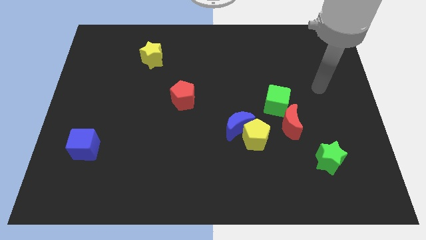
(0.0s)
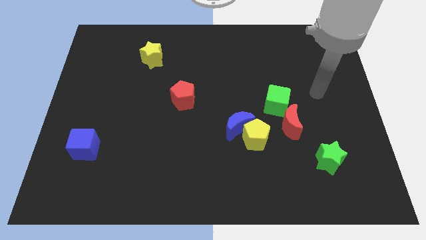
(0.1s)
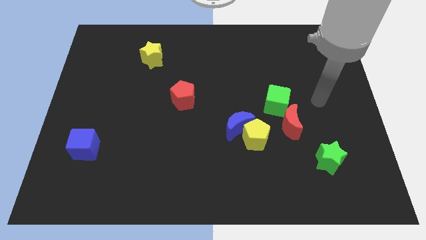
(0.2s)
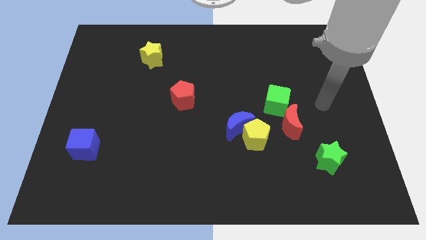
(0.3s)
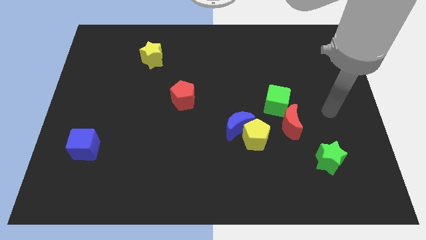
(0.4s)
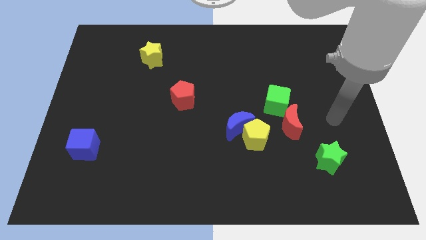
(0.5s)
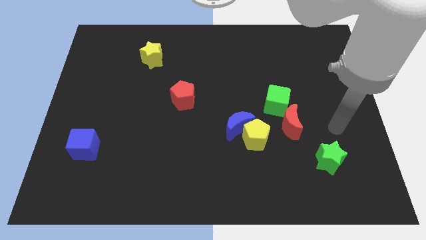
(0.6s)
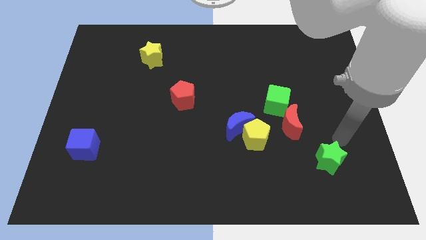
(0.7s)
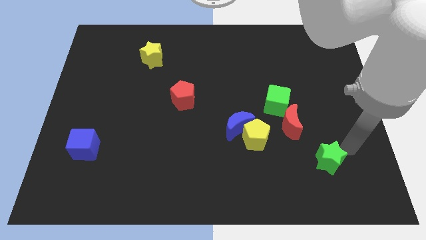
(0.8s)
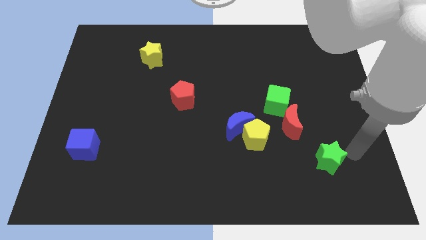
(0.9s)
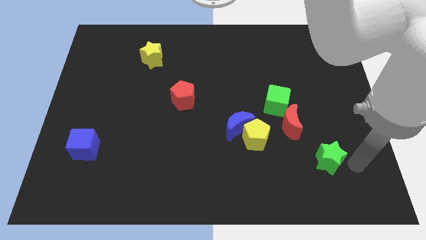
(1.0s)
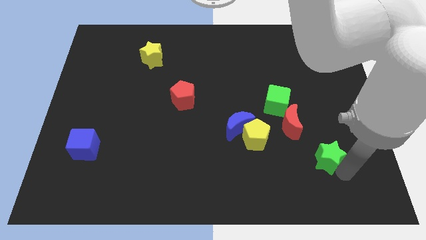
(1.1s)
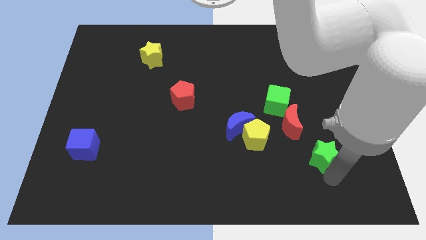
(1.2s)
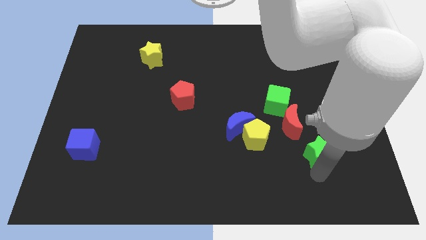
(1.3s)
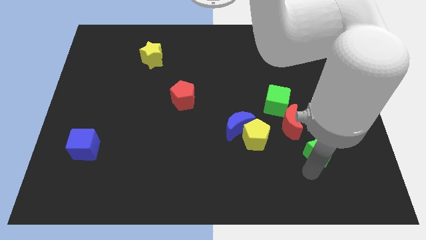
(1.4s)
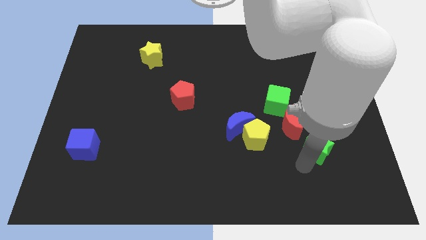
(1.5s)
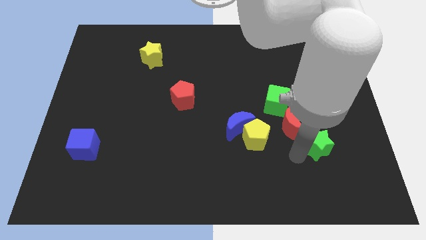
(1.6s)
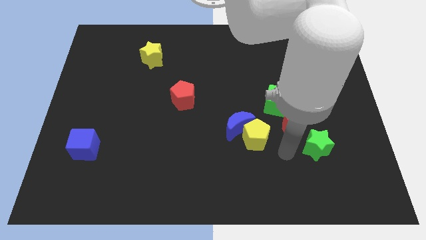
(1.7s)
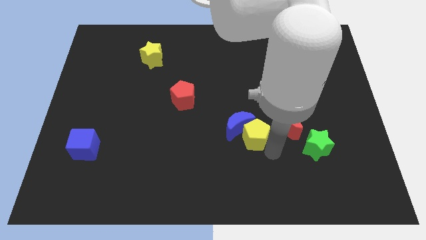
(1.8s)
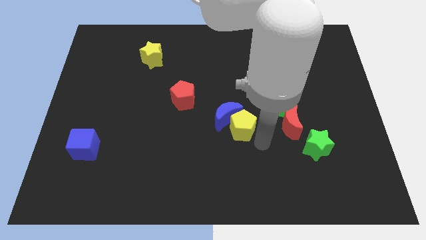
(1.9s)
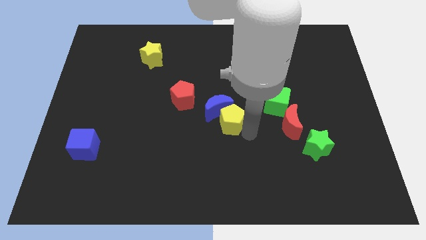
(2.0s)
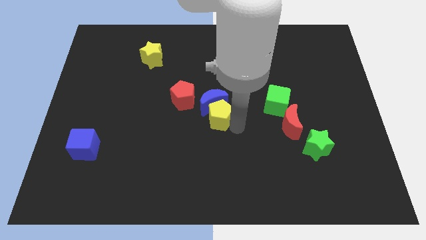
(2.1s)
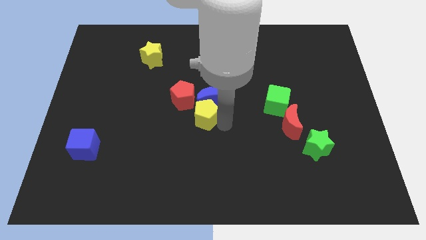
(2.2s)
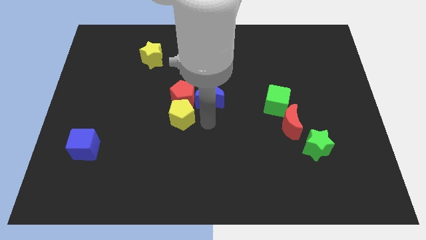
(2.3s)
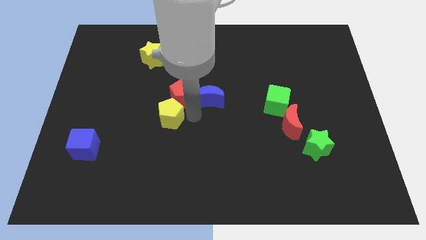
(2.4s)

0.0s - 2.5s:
pull the blue moon apart from the yellow pentagon

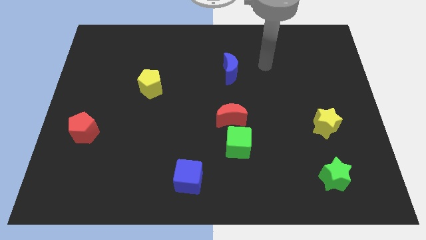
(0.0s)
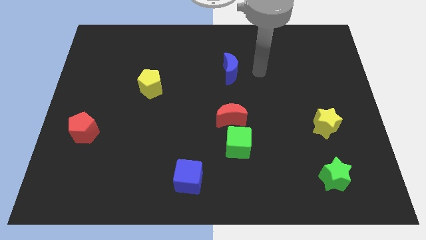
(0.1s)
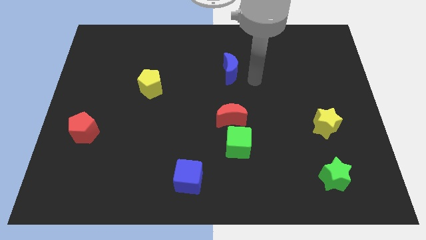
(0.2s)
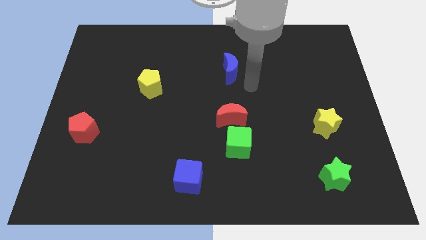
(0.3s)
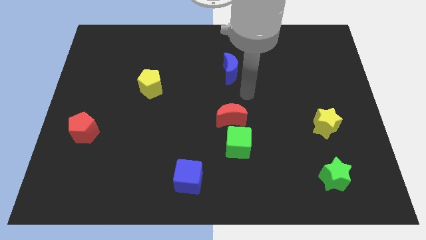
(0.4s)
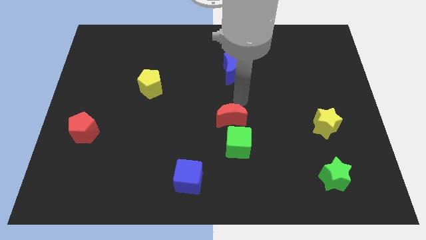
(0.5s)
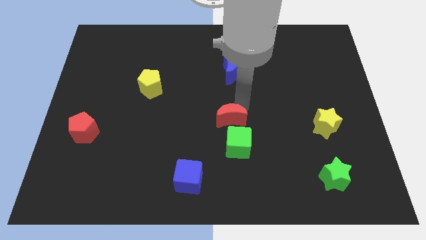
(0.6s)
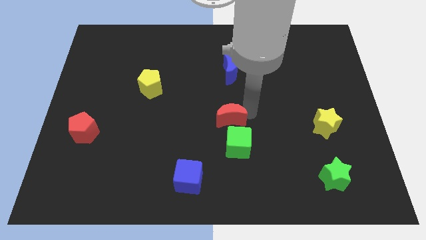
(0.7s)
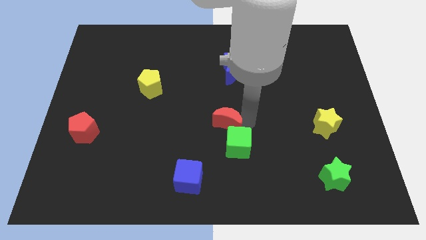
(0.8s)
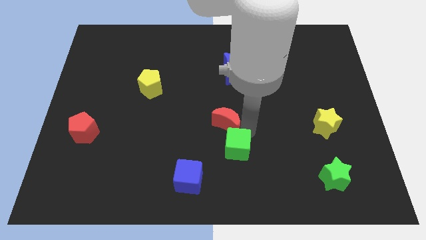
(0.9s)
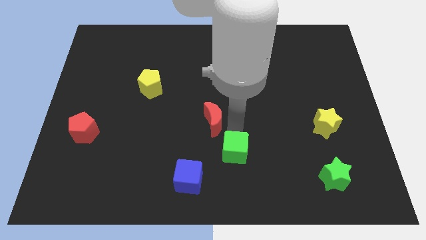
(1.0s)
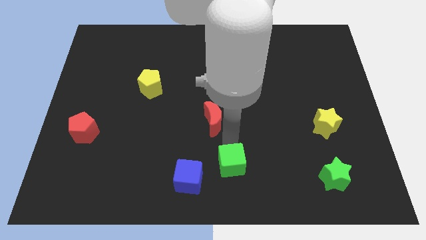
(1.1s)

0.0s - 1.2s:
pull the red moon apart from the green cube

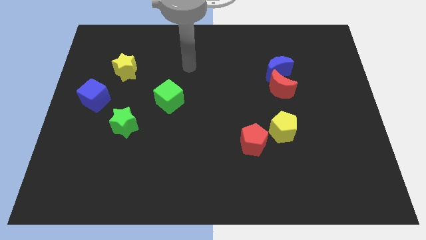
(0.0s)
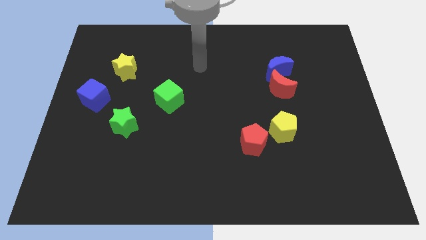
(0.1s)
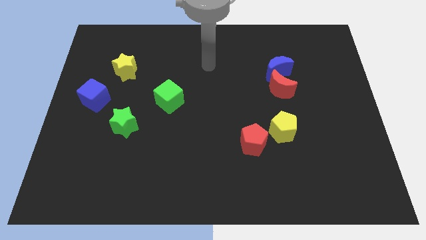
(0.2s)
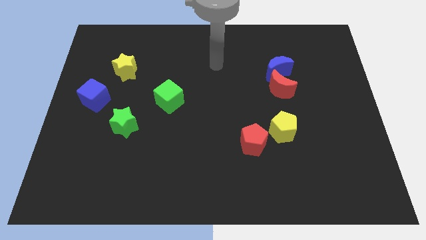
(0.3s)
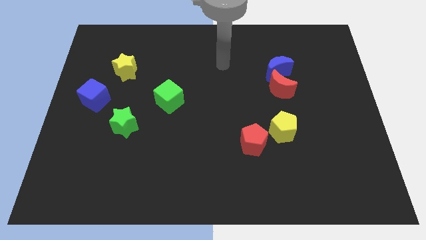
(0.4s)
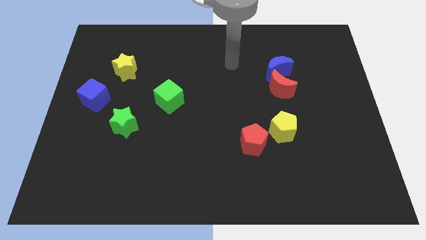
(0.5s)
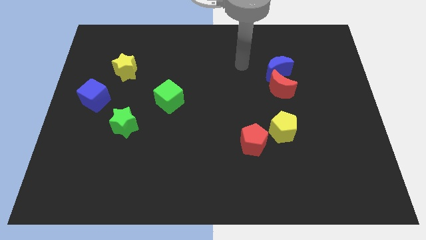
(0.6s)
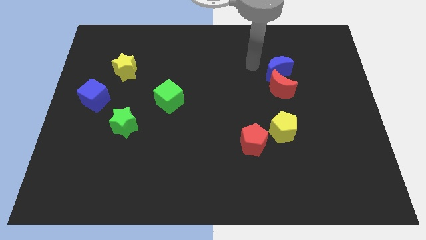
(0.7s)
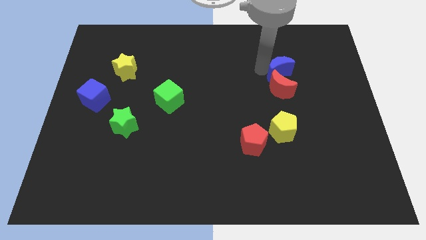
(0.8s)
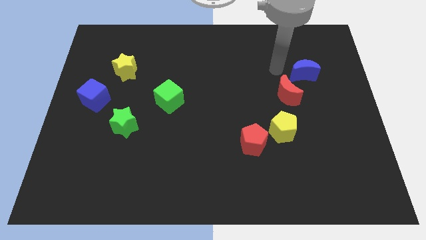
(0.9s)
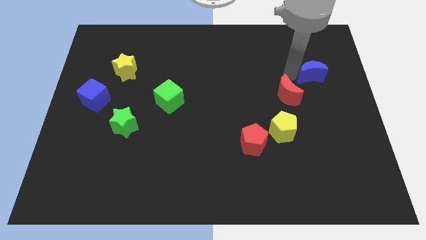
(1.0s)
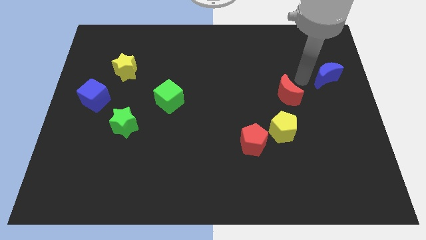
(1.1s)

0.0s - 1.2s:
separate the red moon from the blue moon

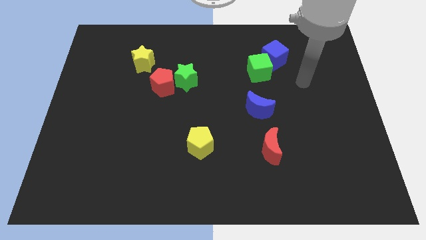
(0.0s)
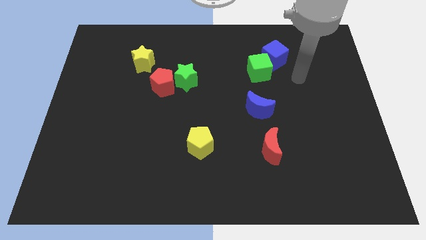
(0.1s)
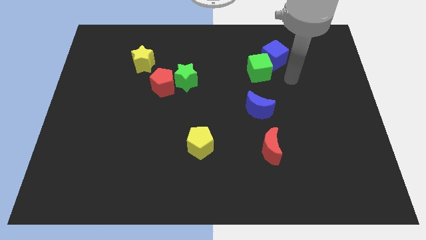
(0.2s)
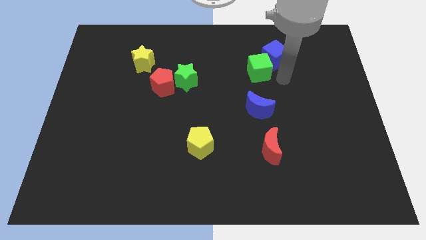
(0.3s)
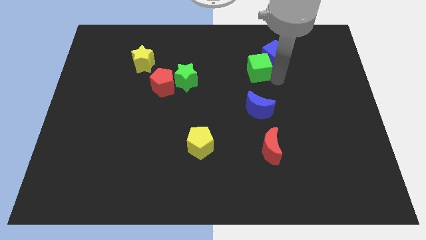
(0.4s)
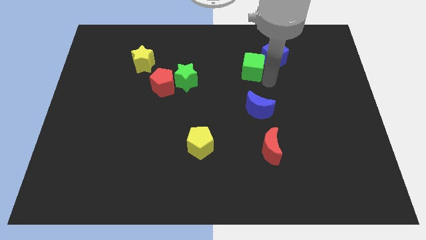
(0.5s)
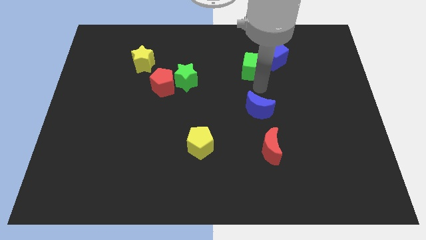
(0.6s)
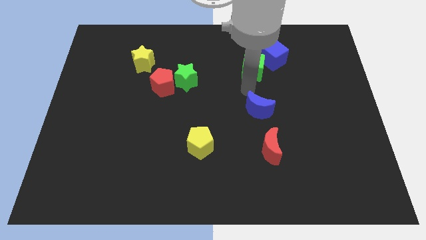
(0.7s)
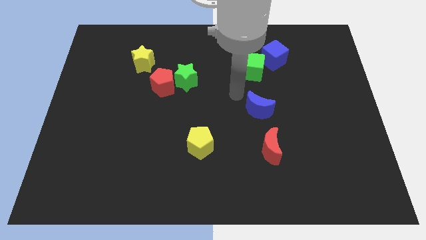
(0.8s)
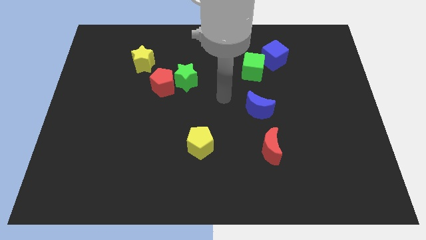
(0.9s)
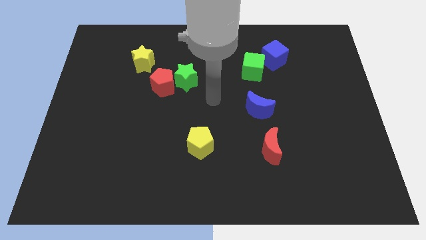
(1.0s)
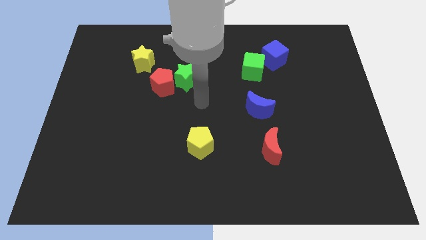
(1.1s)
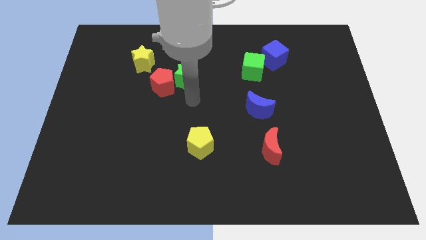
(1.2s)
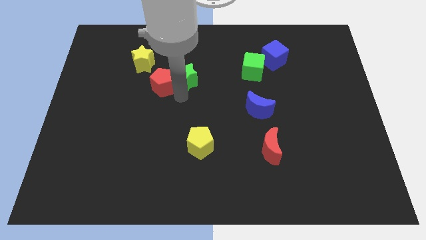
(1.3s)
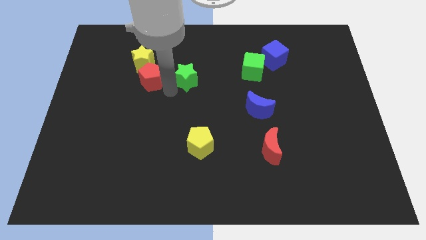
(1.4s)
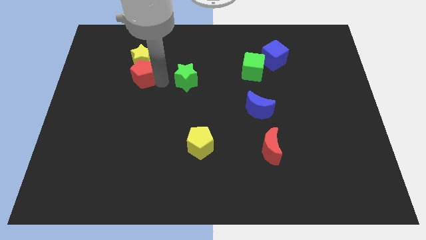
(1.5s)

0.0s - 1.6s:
pull the green star apart from the red pentagon

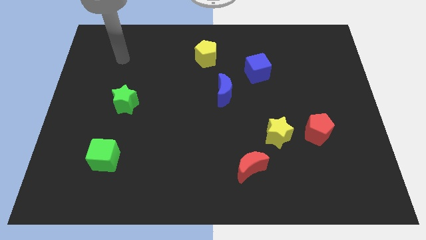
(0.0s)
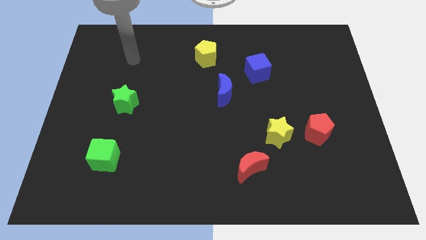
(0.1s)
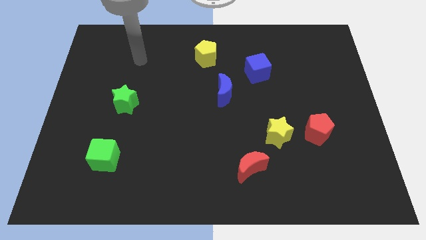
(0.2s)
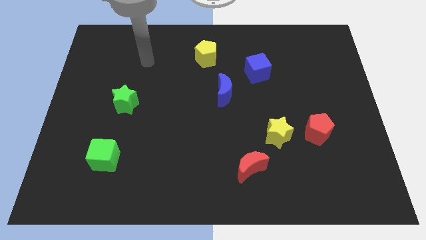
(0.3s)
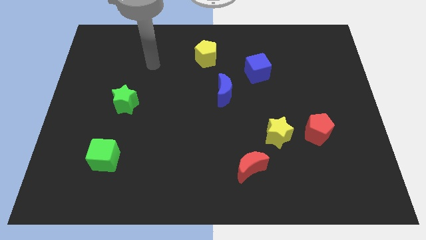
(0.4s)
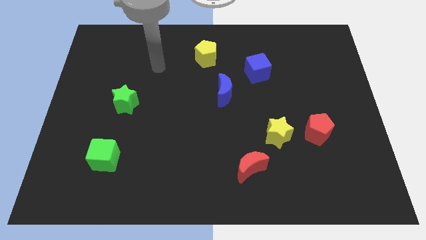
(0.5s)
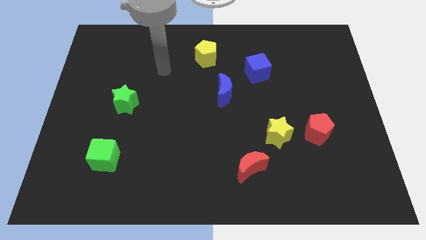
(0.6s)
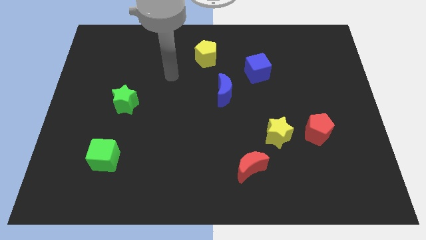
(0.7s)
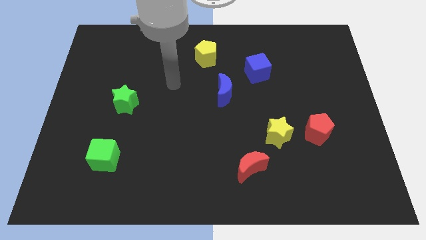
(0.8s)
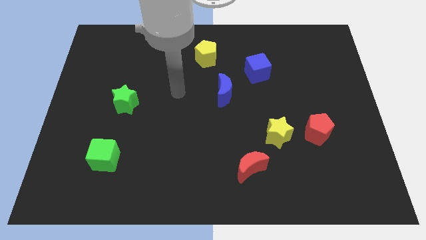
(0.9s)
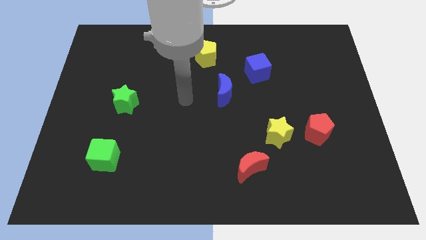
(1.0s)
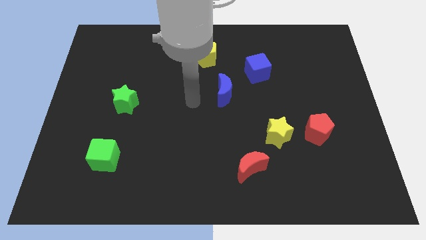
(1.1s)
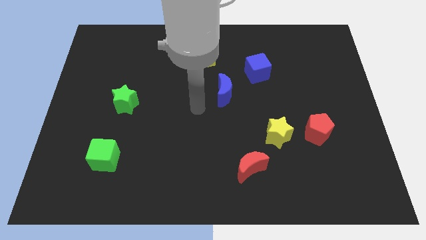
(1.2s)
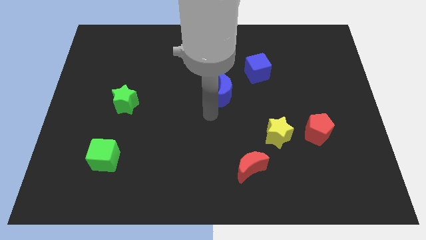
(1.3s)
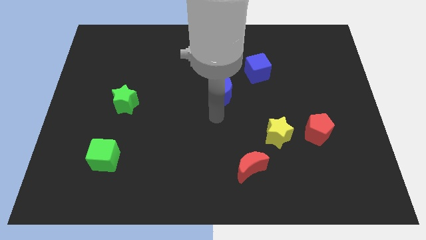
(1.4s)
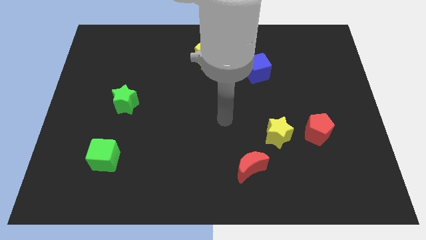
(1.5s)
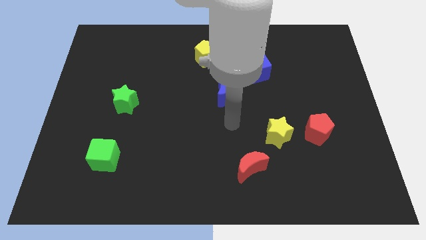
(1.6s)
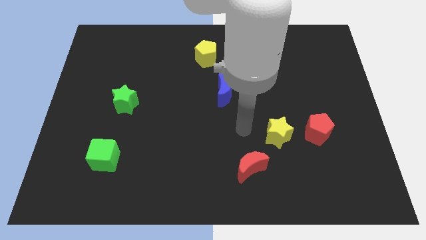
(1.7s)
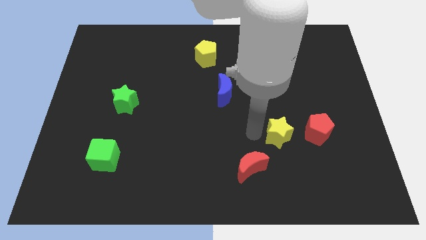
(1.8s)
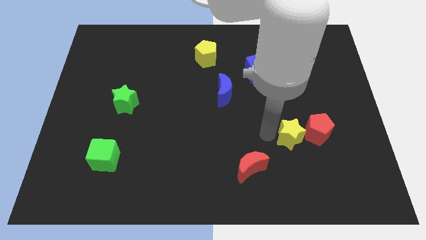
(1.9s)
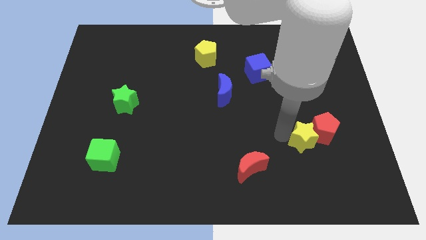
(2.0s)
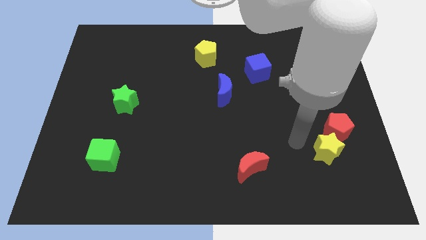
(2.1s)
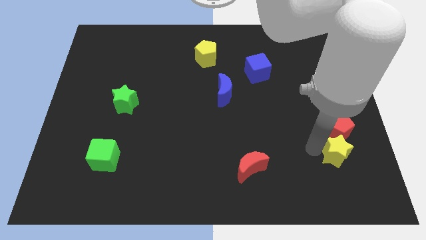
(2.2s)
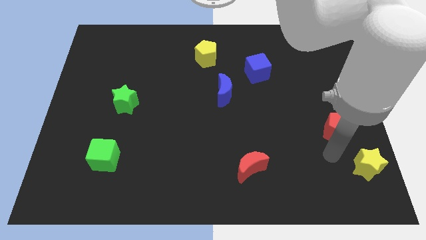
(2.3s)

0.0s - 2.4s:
pull the red pentagon apart from the yellow star

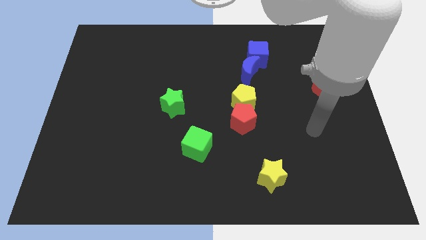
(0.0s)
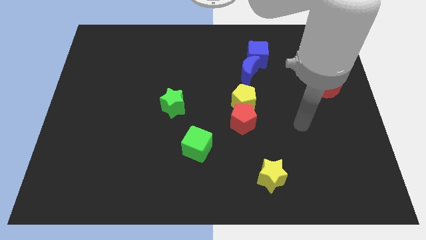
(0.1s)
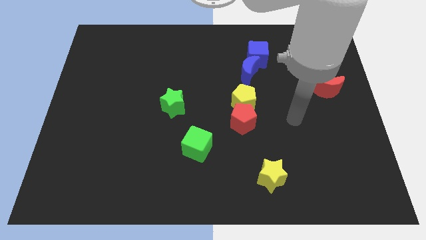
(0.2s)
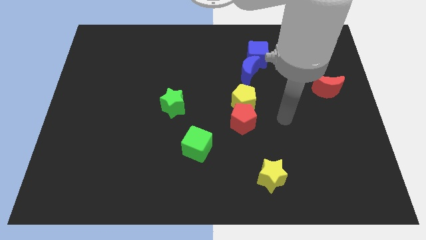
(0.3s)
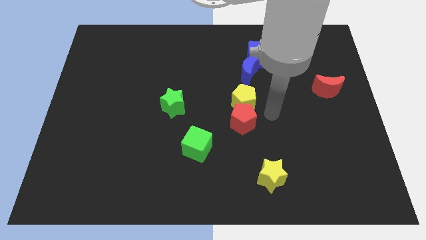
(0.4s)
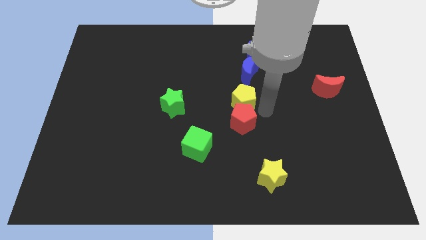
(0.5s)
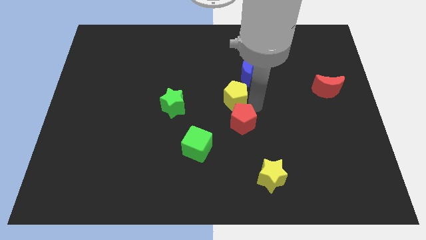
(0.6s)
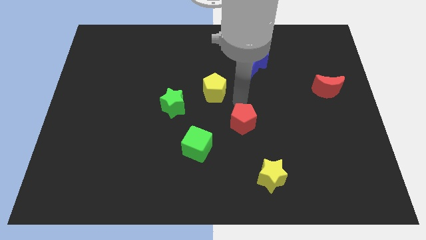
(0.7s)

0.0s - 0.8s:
pull the red pentagon apart from the yellow pentagon
